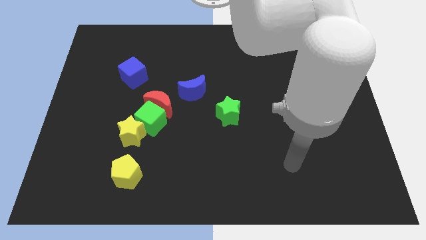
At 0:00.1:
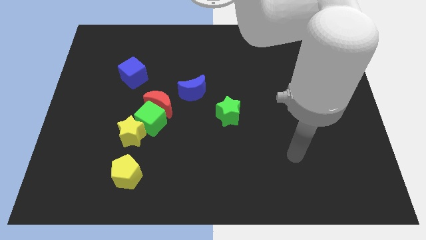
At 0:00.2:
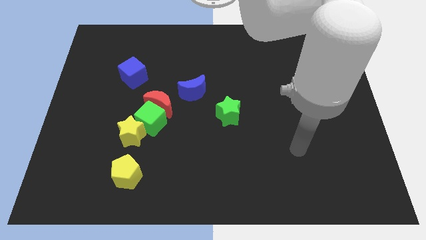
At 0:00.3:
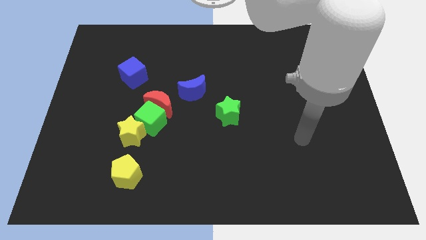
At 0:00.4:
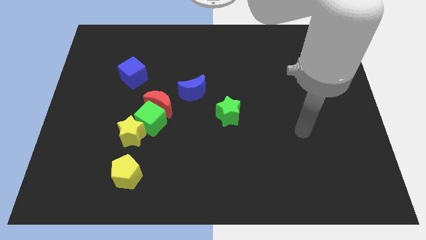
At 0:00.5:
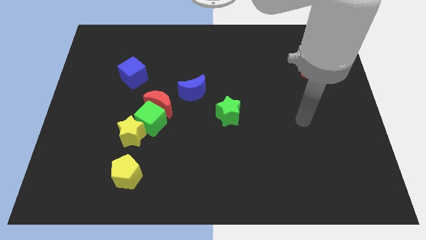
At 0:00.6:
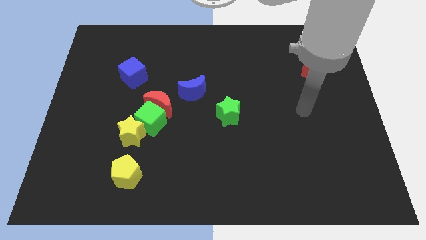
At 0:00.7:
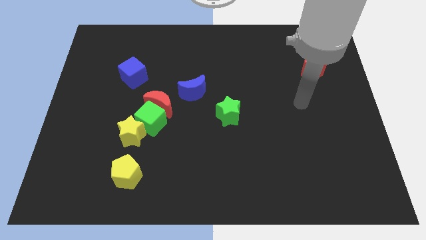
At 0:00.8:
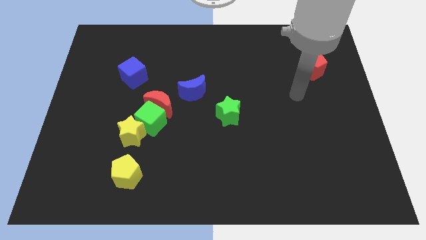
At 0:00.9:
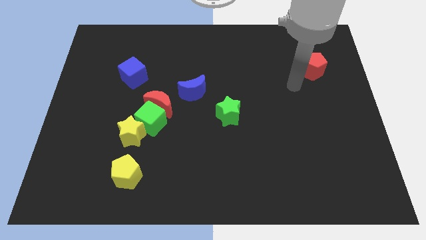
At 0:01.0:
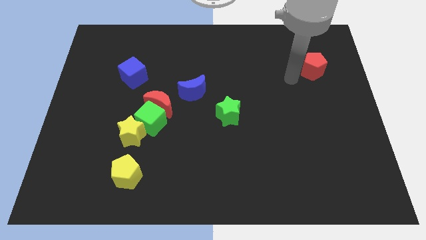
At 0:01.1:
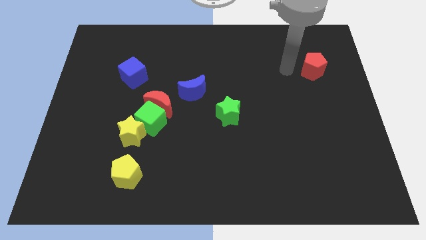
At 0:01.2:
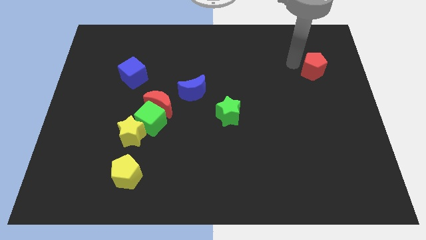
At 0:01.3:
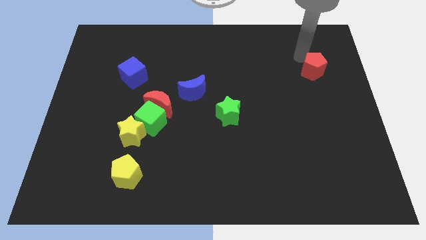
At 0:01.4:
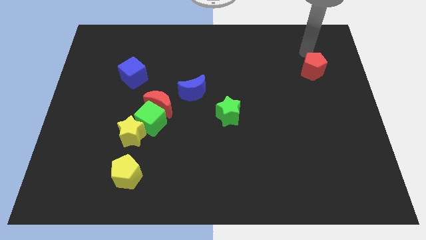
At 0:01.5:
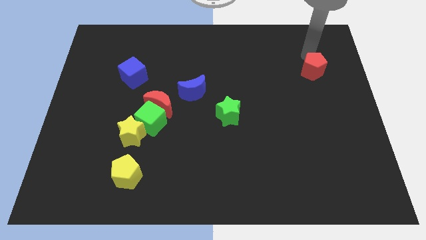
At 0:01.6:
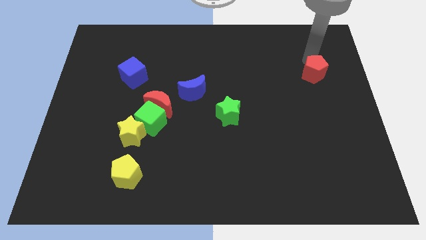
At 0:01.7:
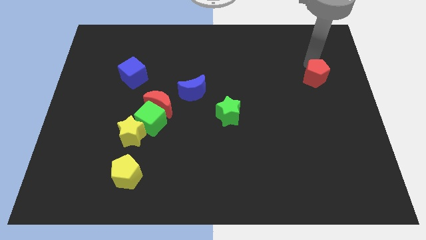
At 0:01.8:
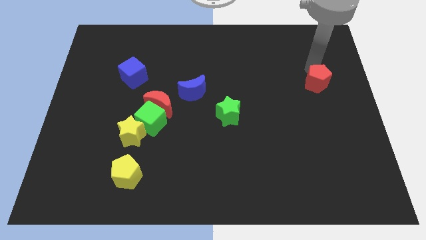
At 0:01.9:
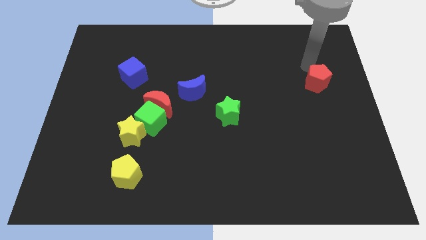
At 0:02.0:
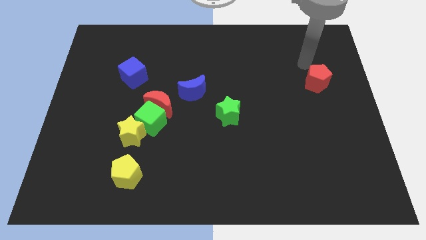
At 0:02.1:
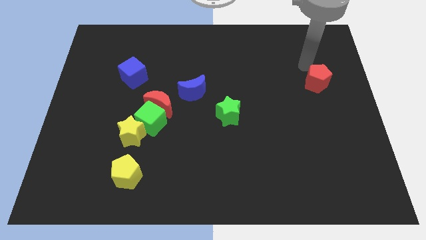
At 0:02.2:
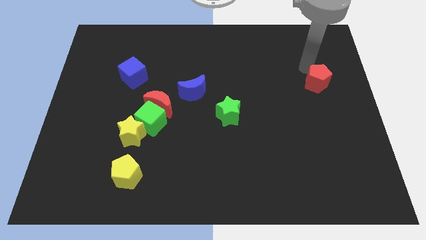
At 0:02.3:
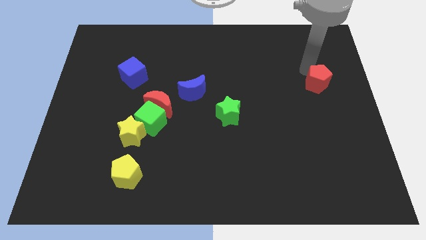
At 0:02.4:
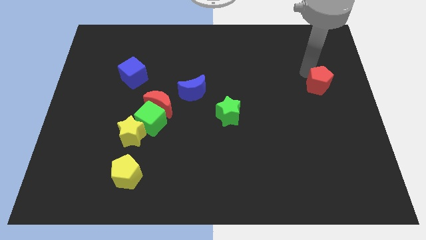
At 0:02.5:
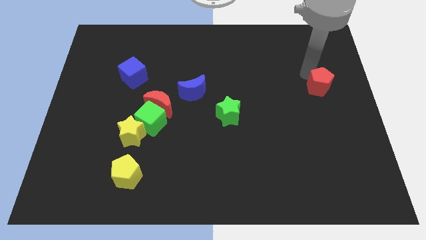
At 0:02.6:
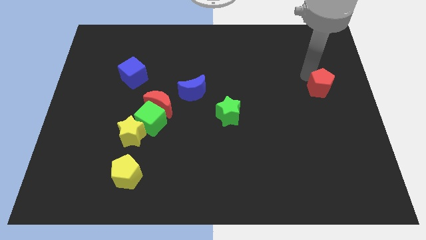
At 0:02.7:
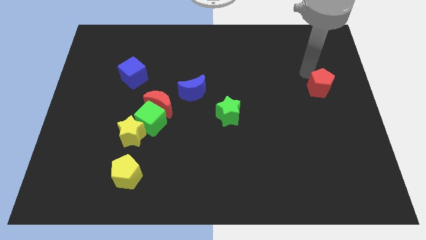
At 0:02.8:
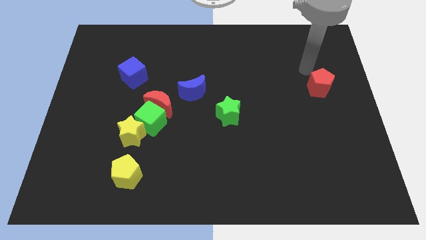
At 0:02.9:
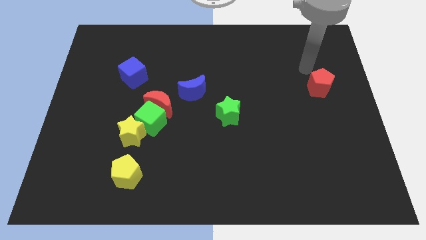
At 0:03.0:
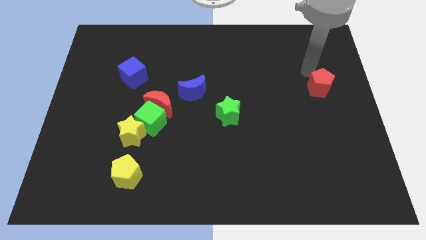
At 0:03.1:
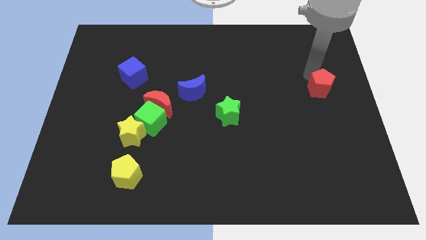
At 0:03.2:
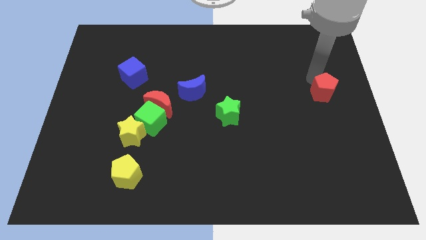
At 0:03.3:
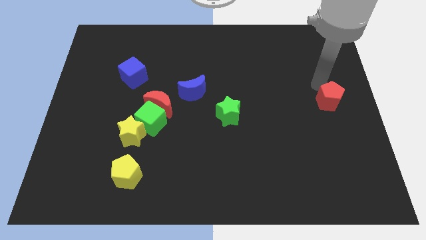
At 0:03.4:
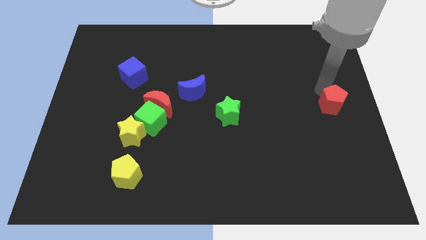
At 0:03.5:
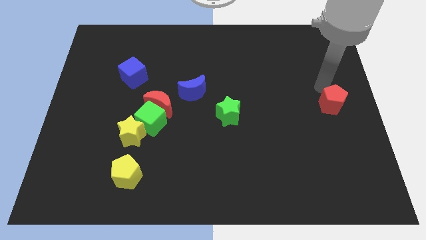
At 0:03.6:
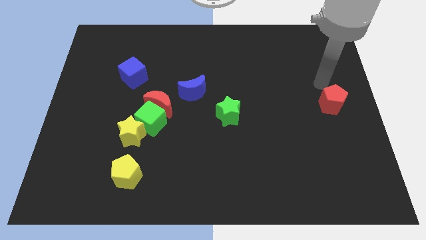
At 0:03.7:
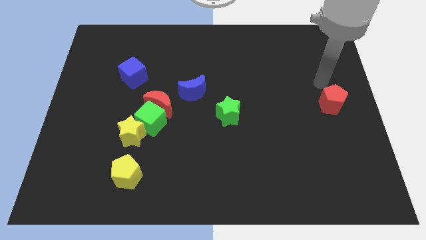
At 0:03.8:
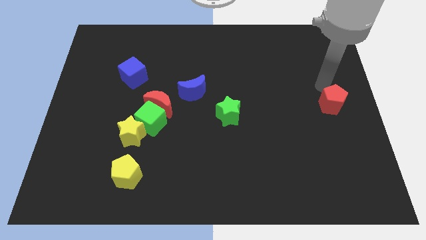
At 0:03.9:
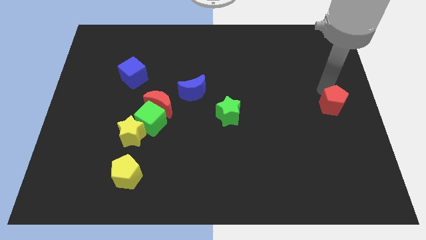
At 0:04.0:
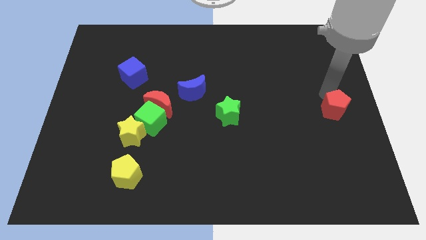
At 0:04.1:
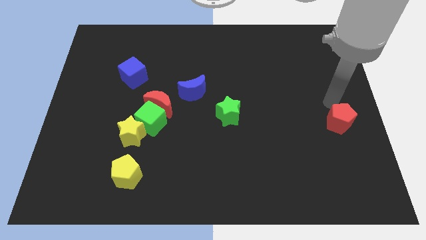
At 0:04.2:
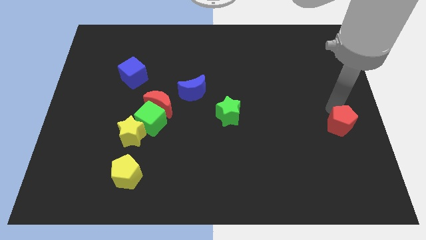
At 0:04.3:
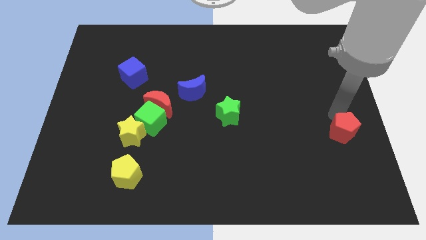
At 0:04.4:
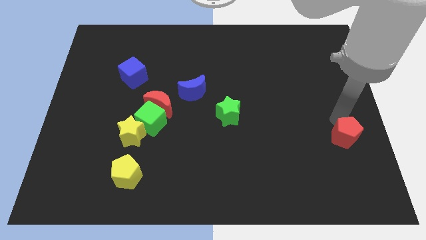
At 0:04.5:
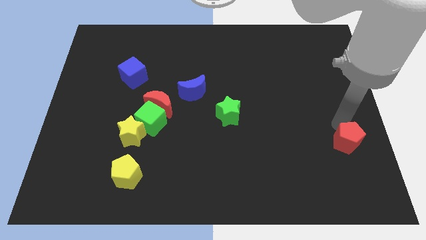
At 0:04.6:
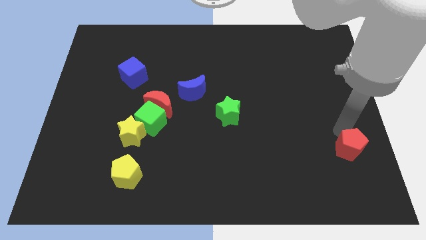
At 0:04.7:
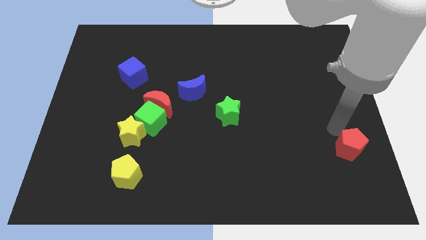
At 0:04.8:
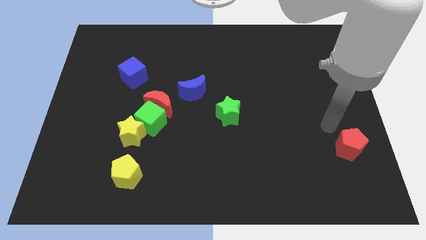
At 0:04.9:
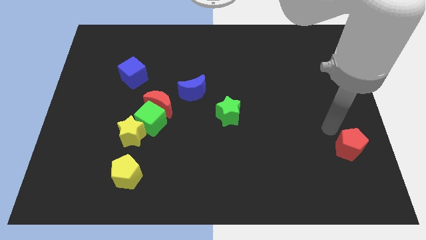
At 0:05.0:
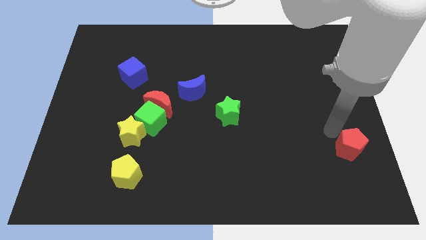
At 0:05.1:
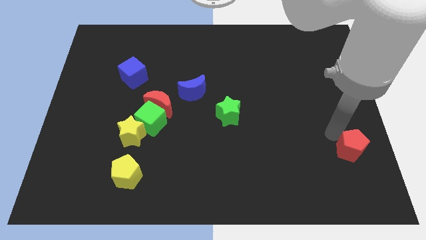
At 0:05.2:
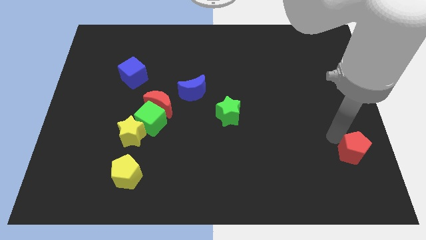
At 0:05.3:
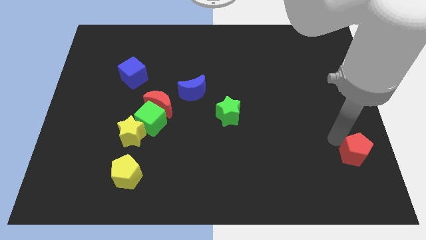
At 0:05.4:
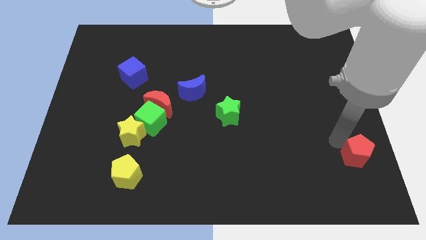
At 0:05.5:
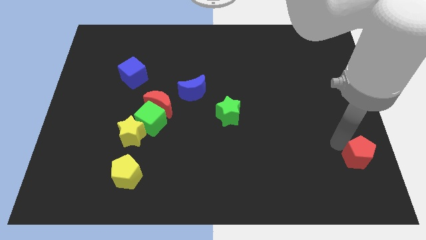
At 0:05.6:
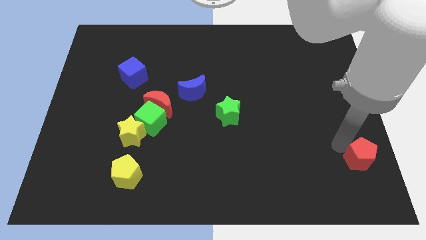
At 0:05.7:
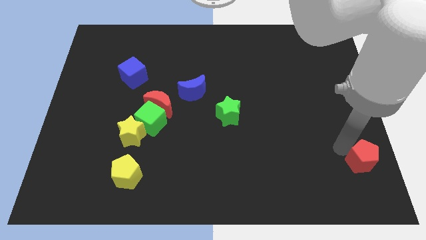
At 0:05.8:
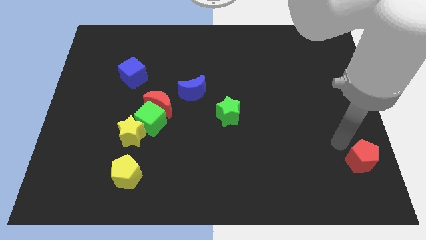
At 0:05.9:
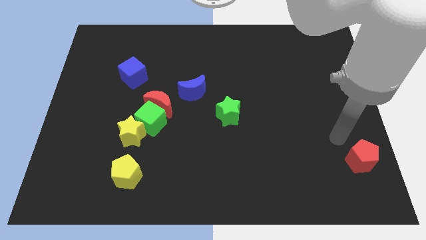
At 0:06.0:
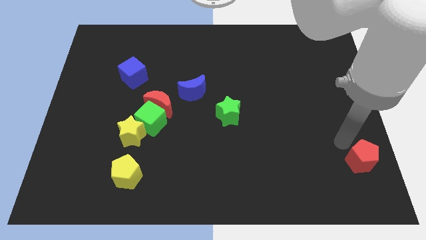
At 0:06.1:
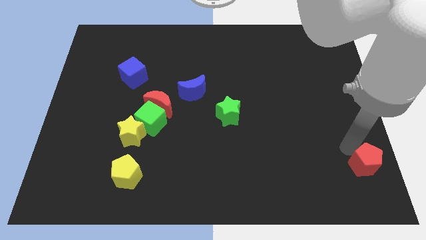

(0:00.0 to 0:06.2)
push the red pentagon to the bottom right of the board
